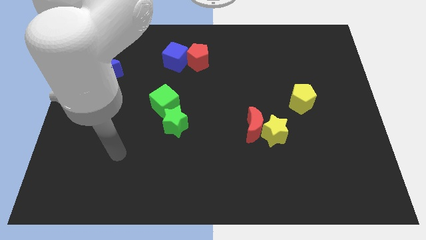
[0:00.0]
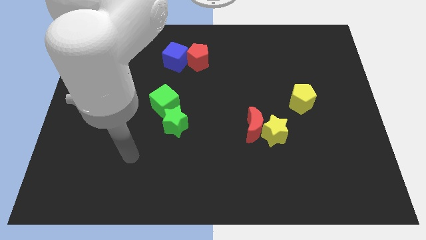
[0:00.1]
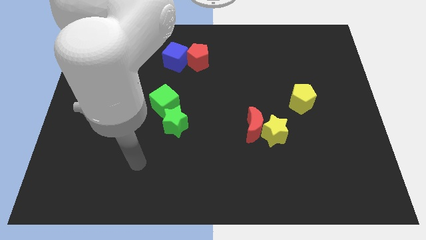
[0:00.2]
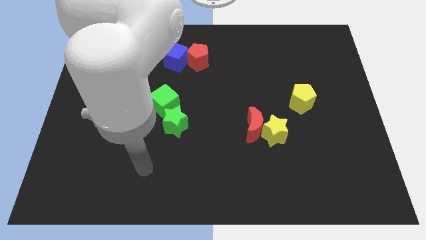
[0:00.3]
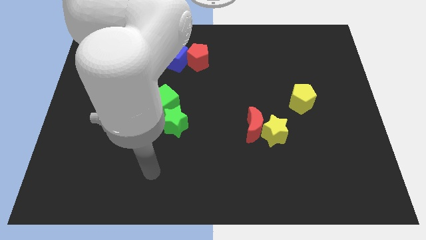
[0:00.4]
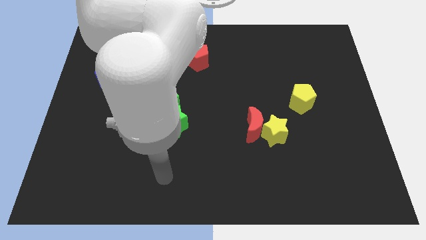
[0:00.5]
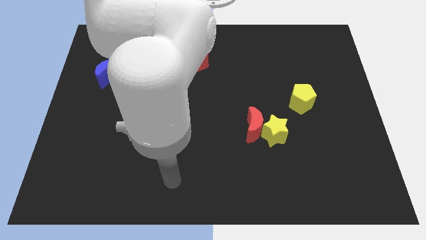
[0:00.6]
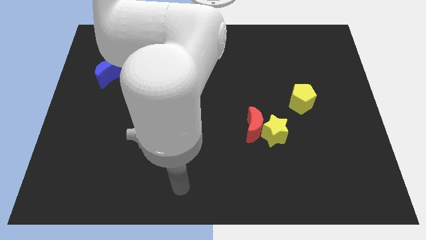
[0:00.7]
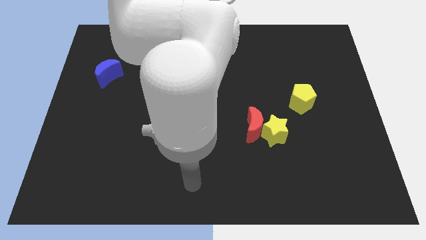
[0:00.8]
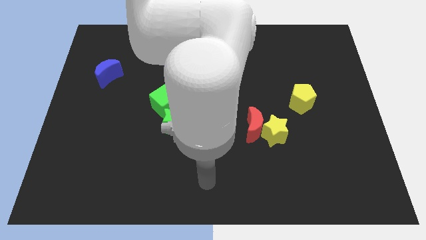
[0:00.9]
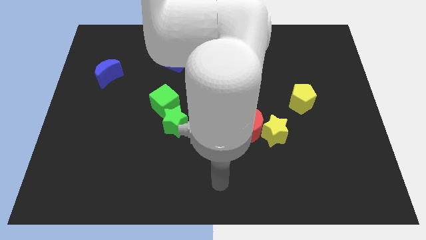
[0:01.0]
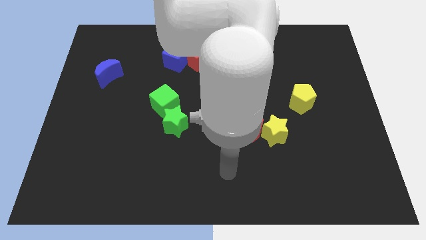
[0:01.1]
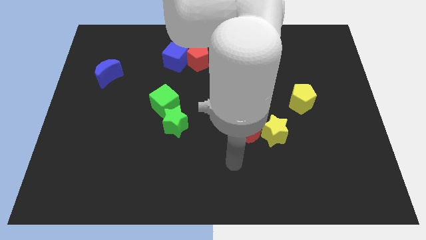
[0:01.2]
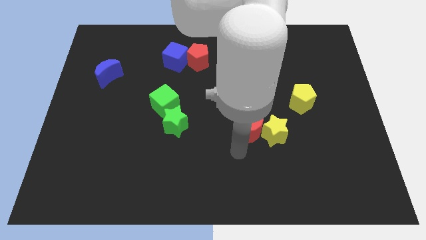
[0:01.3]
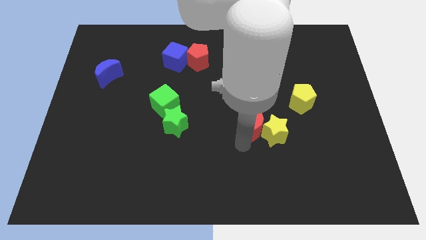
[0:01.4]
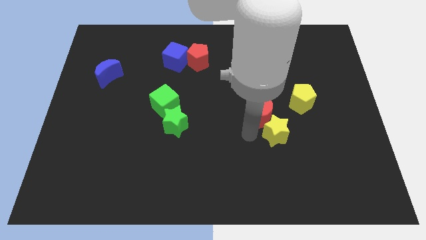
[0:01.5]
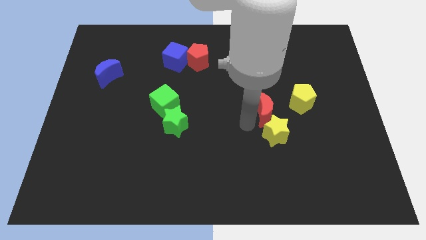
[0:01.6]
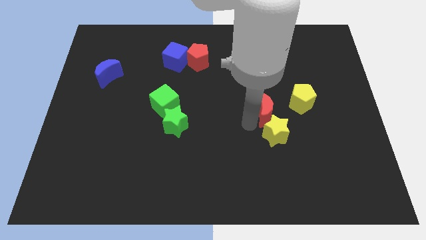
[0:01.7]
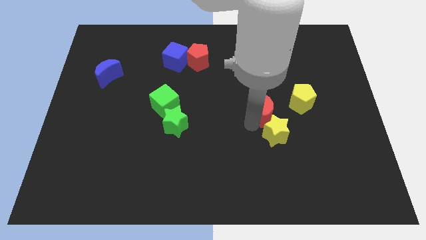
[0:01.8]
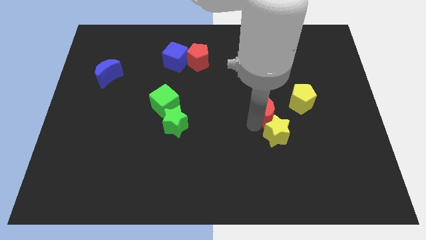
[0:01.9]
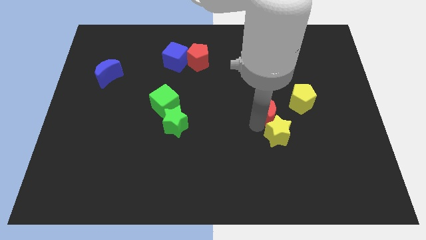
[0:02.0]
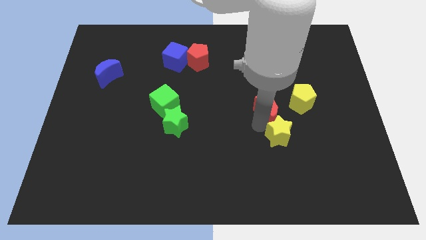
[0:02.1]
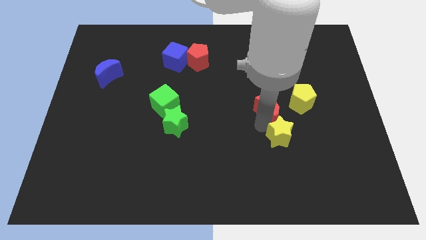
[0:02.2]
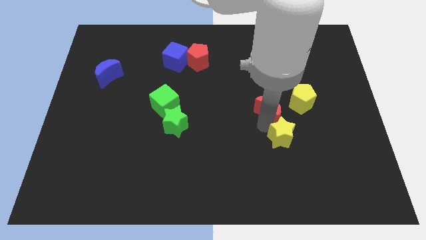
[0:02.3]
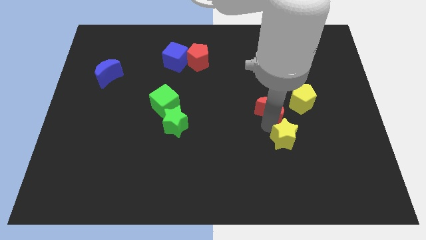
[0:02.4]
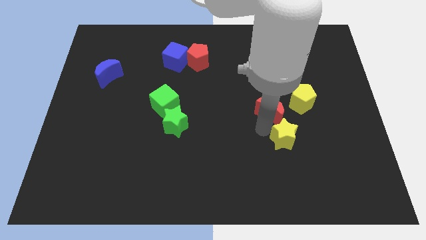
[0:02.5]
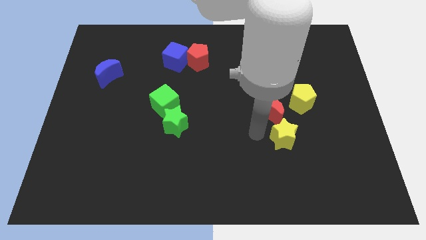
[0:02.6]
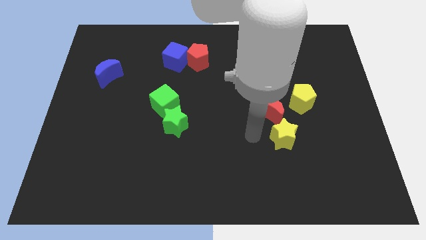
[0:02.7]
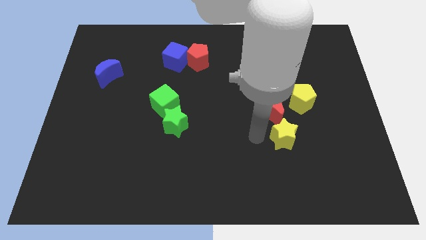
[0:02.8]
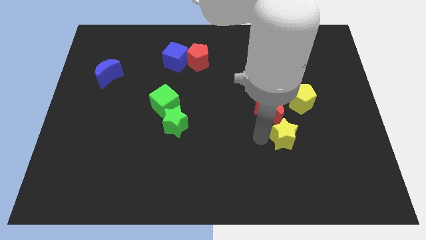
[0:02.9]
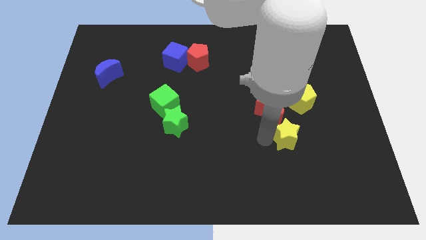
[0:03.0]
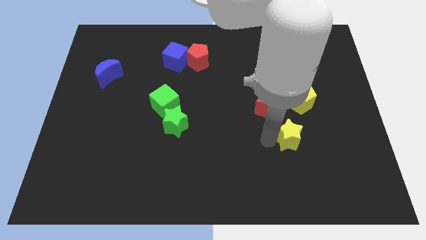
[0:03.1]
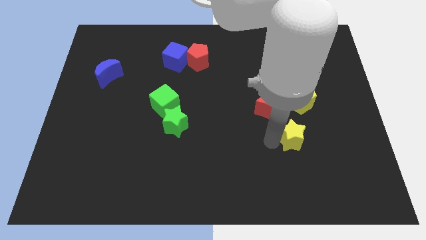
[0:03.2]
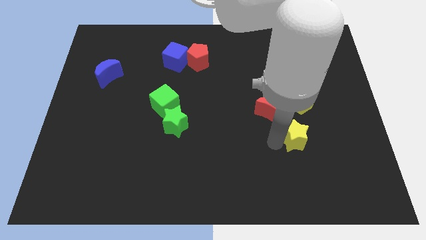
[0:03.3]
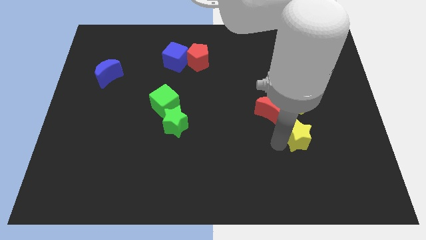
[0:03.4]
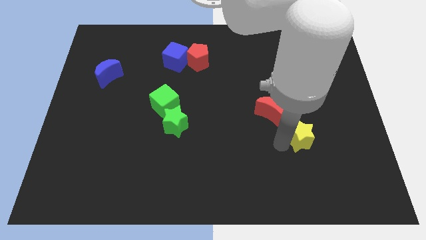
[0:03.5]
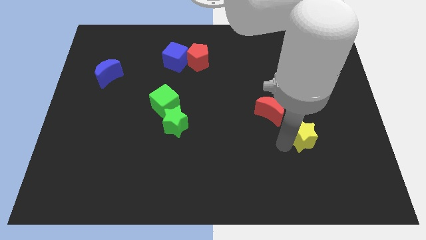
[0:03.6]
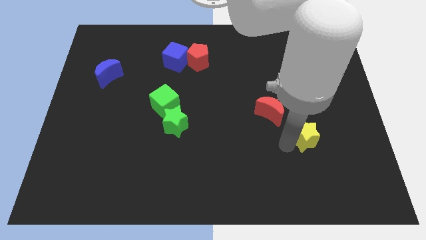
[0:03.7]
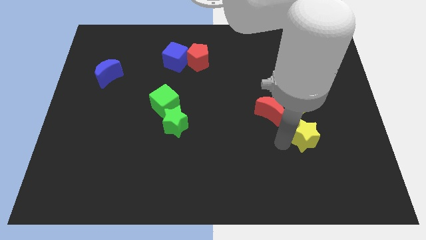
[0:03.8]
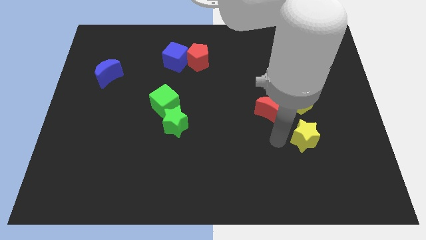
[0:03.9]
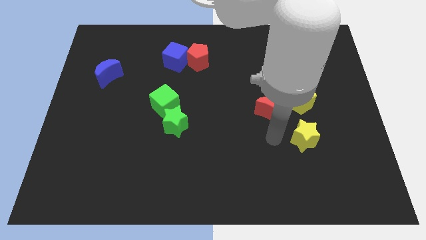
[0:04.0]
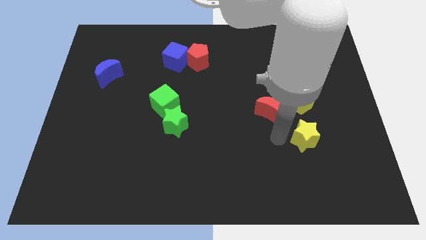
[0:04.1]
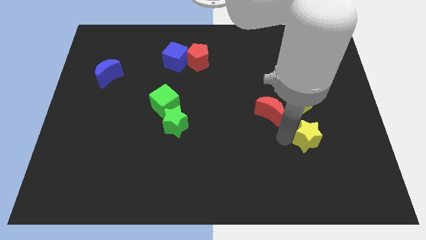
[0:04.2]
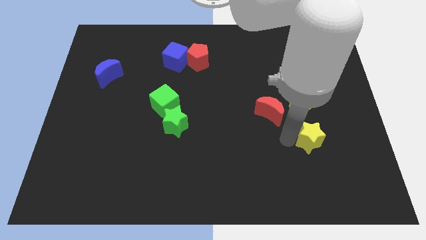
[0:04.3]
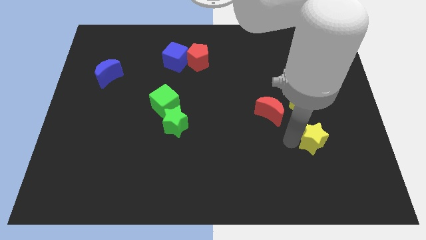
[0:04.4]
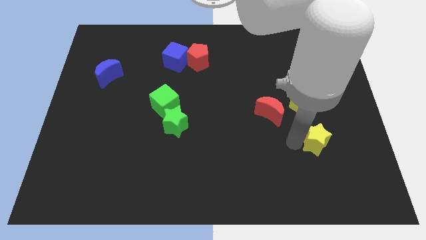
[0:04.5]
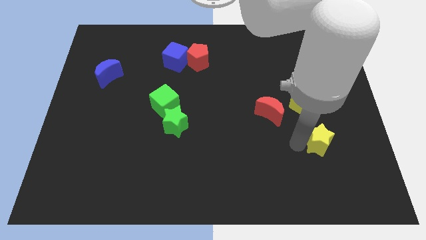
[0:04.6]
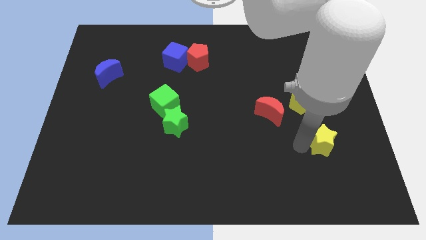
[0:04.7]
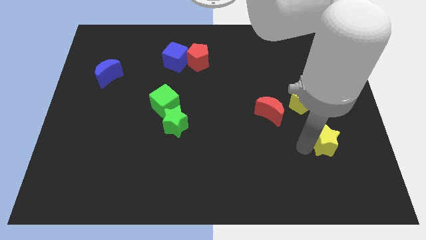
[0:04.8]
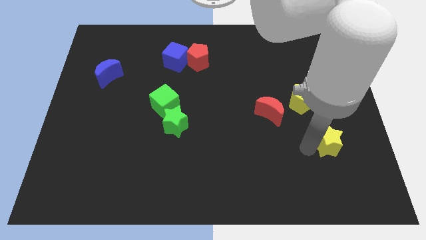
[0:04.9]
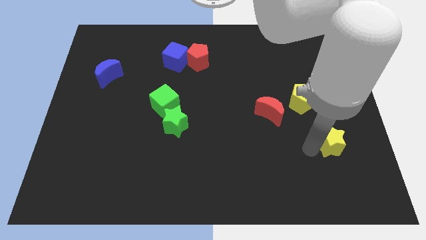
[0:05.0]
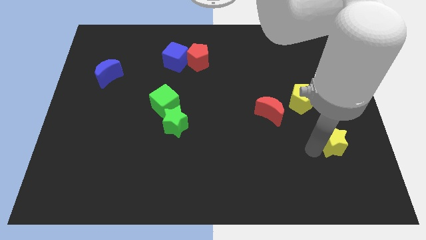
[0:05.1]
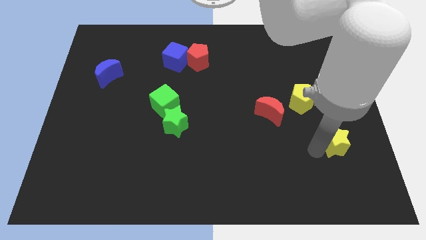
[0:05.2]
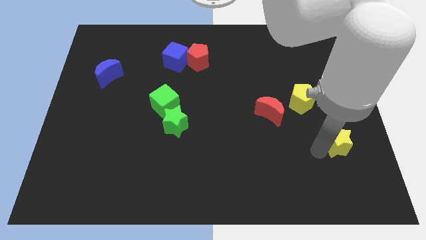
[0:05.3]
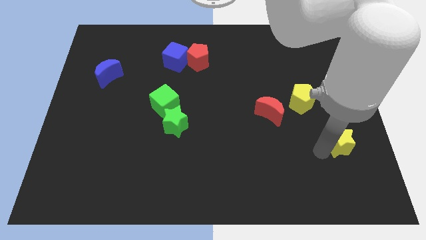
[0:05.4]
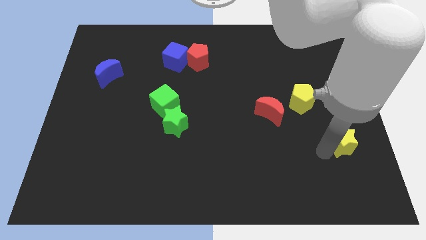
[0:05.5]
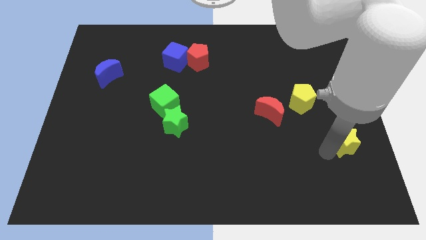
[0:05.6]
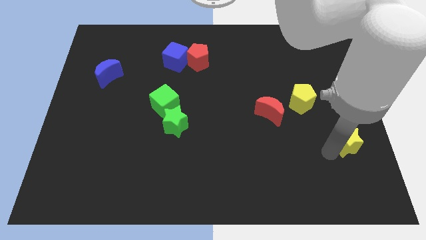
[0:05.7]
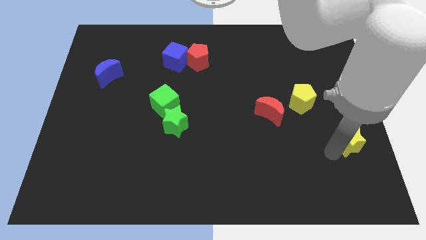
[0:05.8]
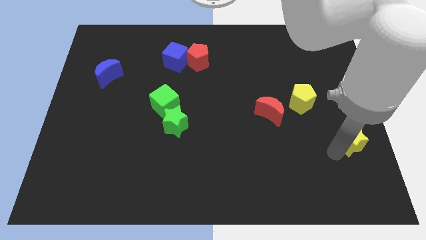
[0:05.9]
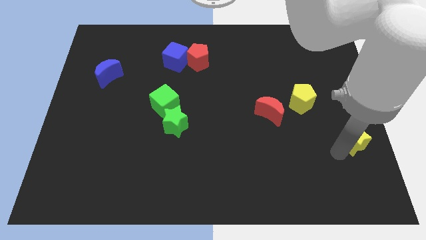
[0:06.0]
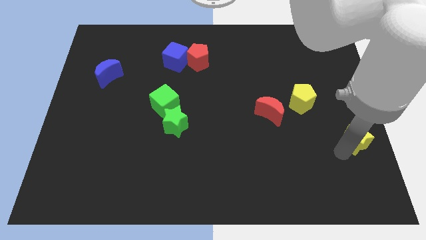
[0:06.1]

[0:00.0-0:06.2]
push the yellow star to the center right
